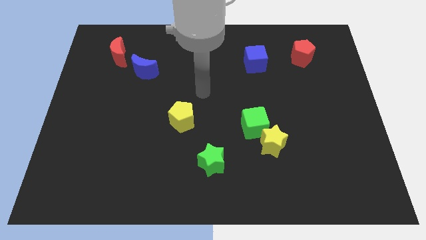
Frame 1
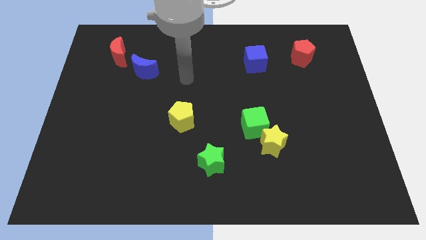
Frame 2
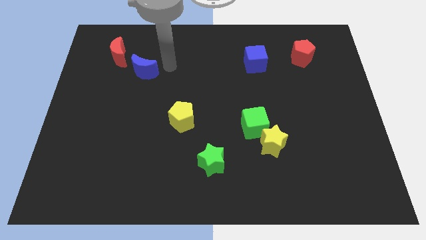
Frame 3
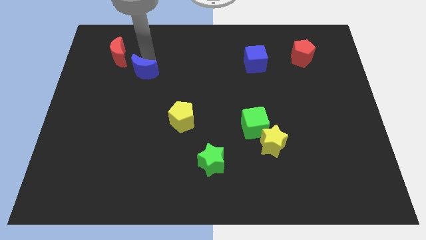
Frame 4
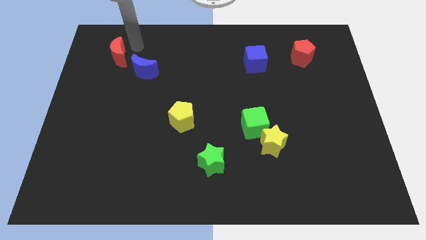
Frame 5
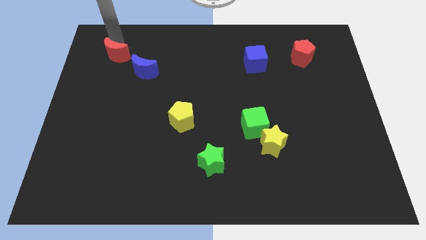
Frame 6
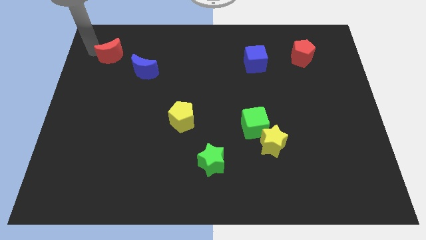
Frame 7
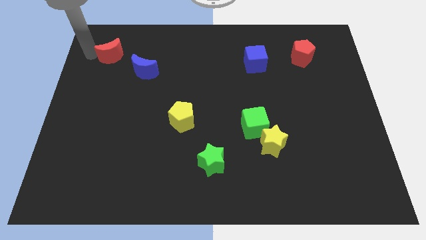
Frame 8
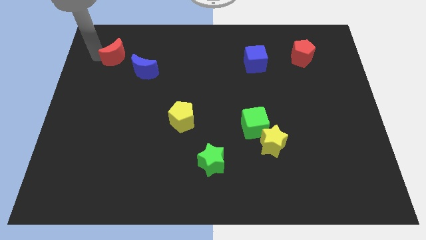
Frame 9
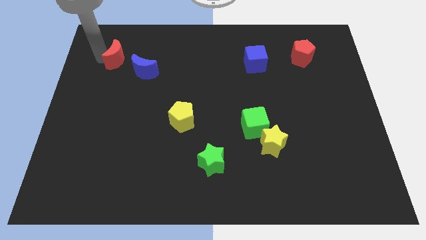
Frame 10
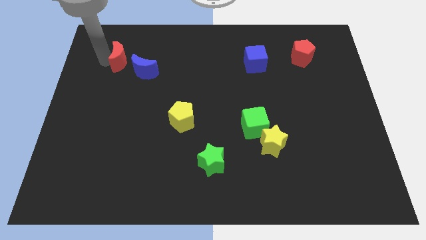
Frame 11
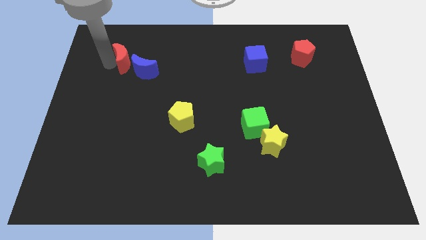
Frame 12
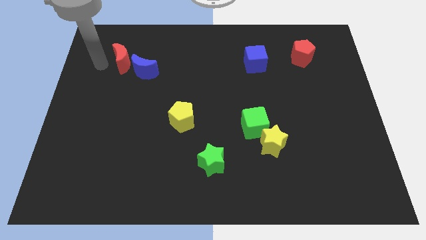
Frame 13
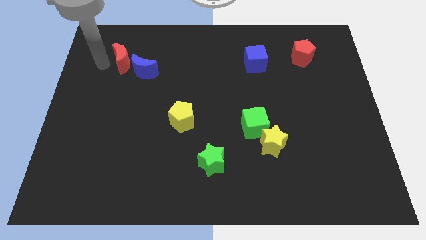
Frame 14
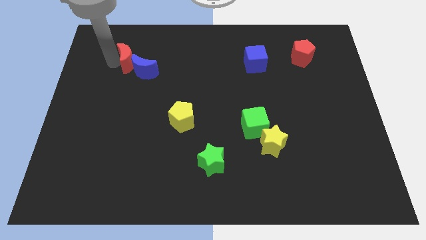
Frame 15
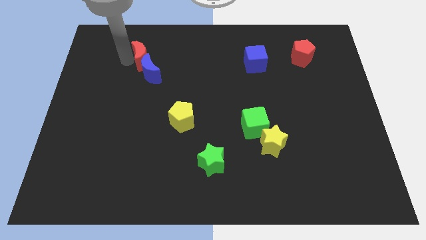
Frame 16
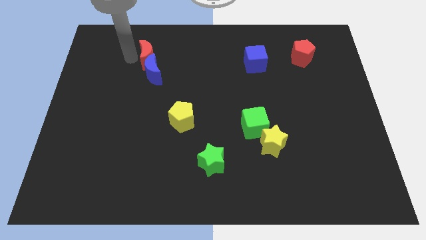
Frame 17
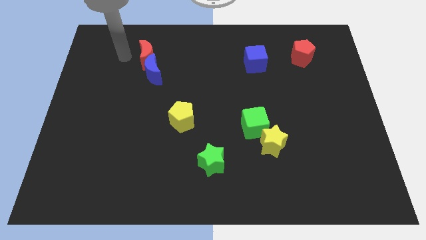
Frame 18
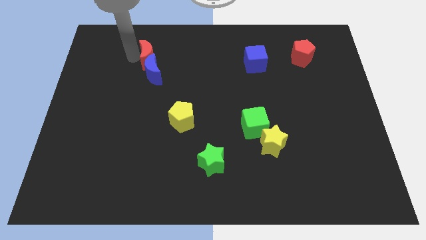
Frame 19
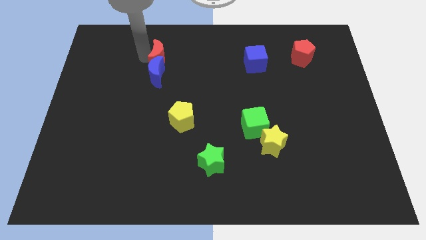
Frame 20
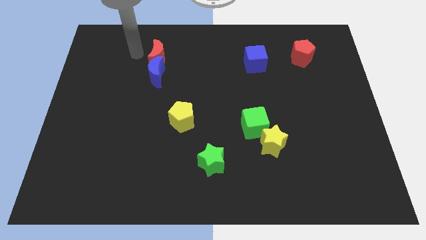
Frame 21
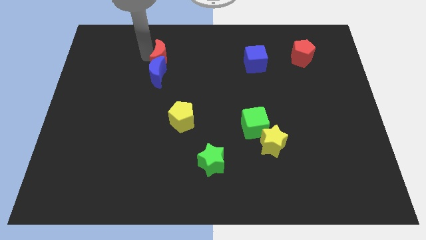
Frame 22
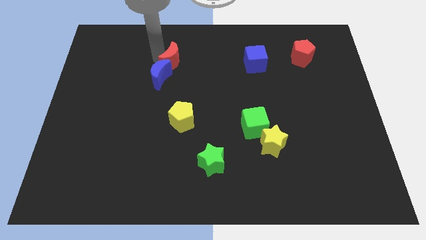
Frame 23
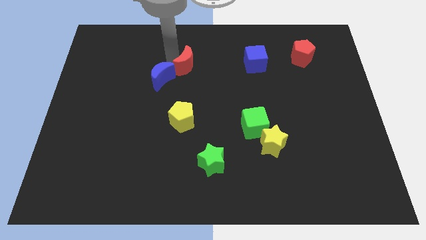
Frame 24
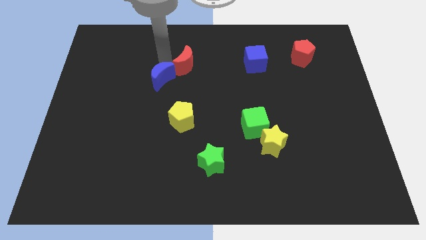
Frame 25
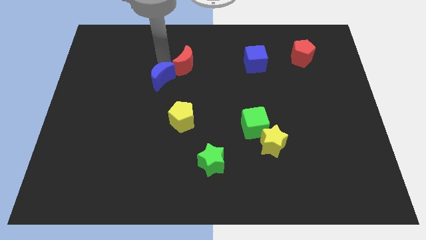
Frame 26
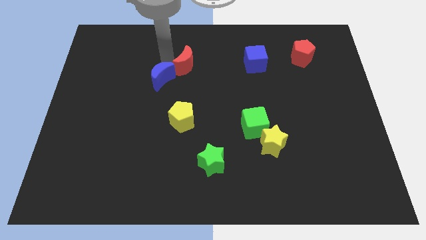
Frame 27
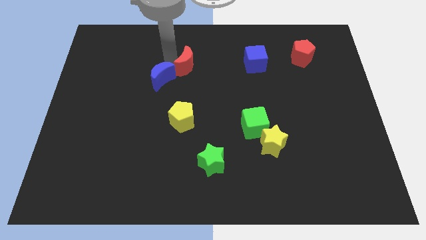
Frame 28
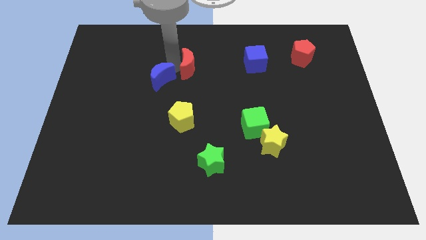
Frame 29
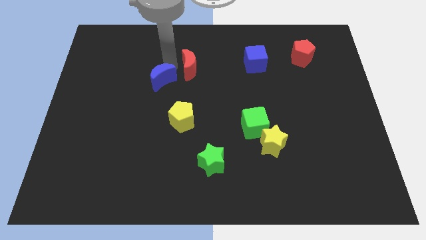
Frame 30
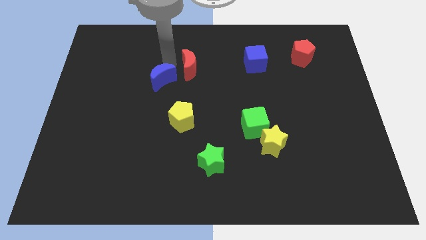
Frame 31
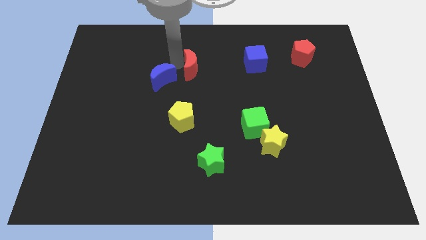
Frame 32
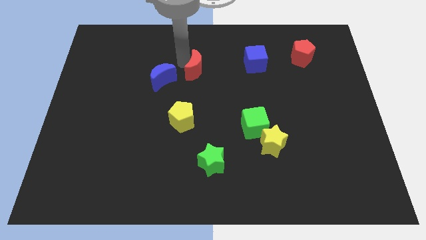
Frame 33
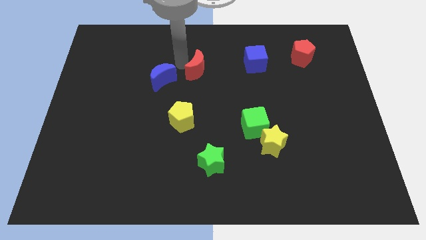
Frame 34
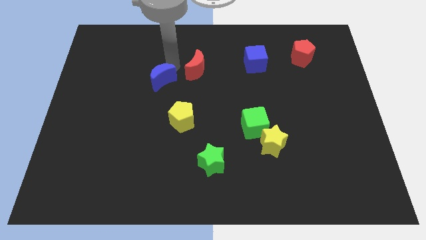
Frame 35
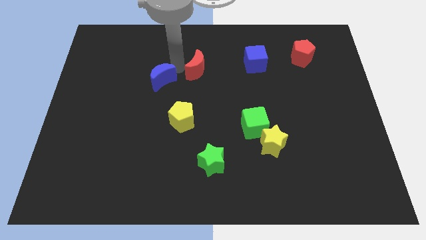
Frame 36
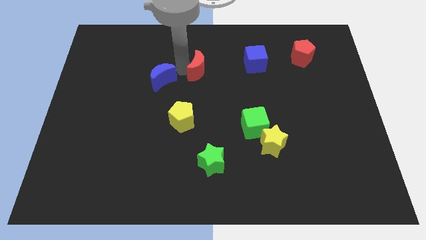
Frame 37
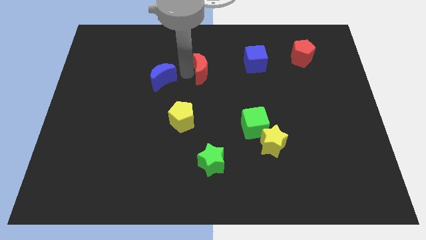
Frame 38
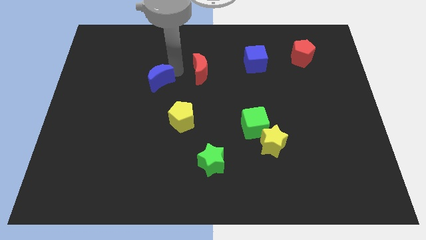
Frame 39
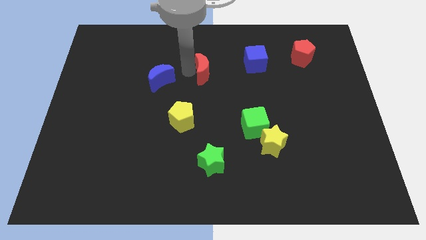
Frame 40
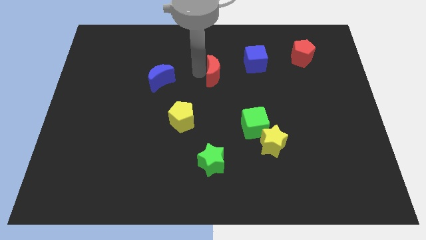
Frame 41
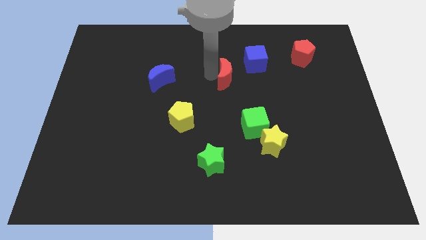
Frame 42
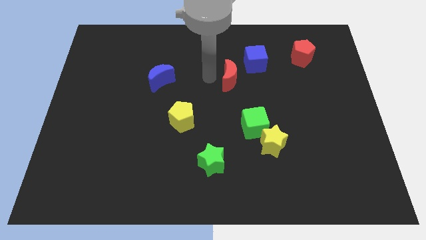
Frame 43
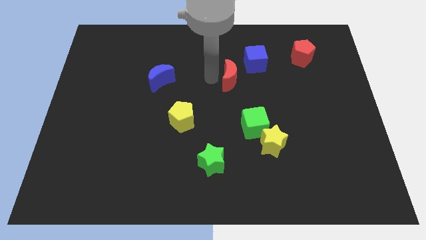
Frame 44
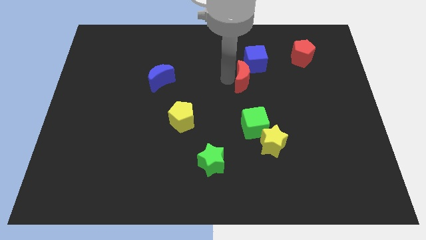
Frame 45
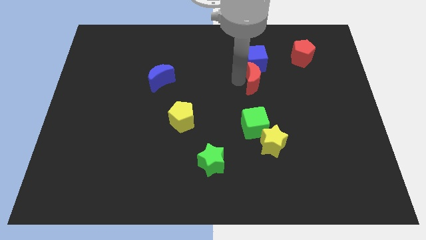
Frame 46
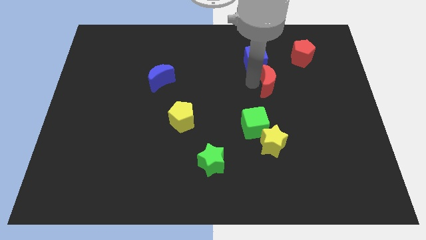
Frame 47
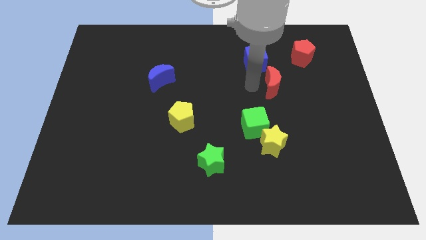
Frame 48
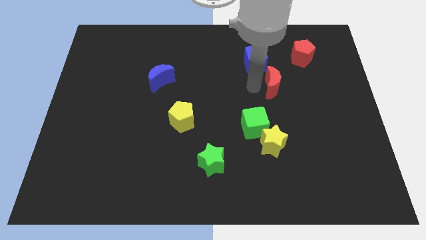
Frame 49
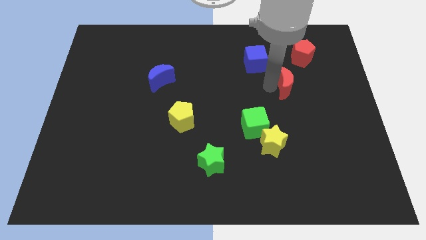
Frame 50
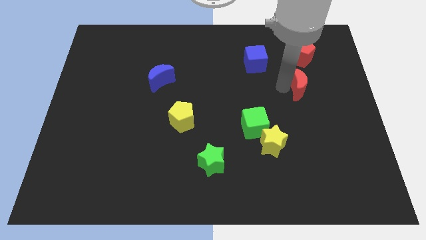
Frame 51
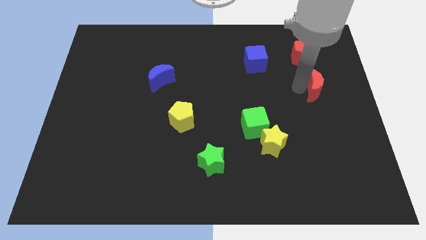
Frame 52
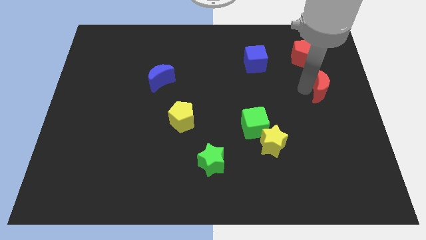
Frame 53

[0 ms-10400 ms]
put the red moon to the right side of the board

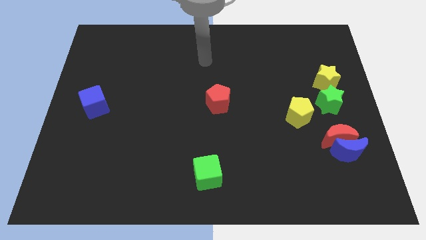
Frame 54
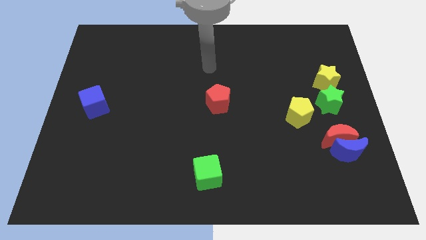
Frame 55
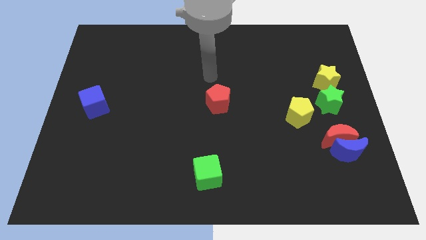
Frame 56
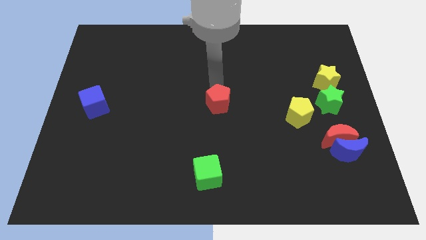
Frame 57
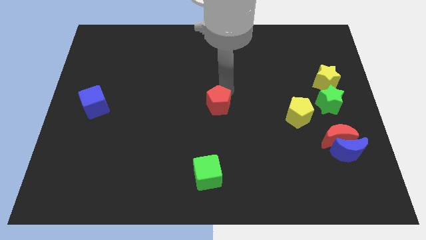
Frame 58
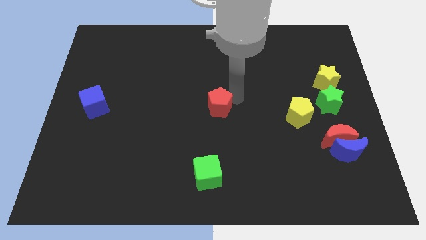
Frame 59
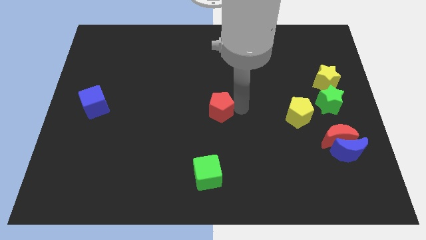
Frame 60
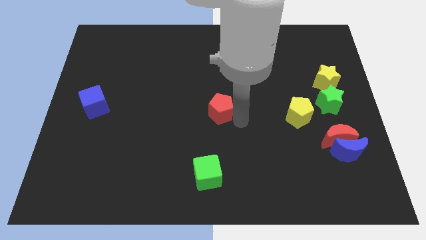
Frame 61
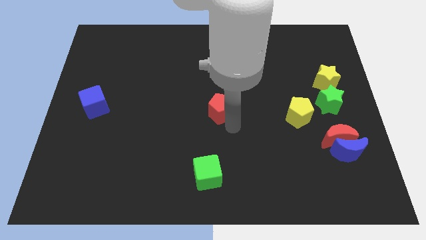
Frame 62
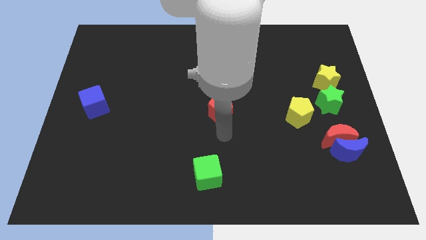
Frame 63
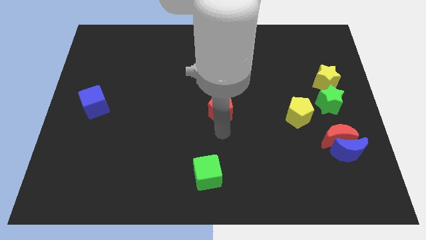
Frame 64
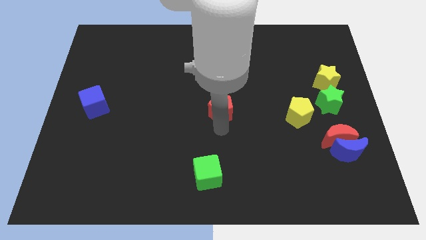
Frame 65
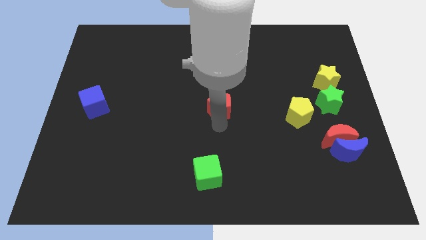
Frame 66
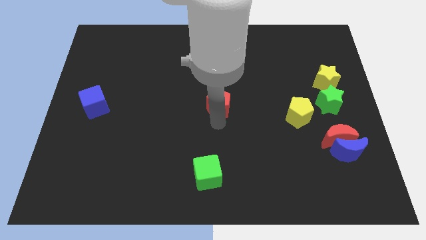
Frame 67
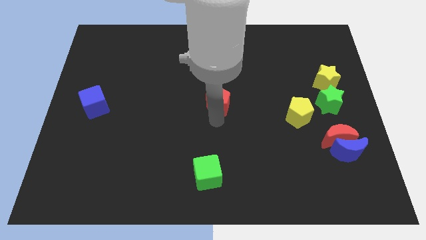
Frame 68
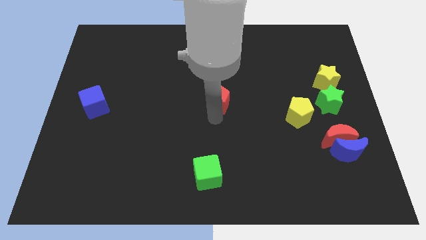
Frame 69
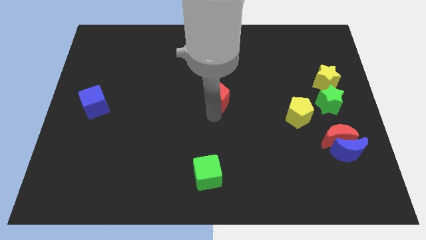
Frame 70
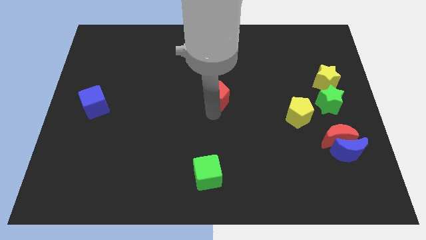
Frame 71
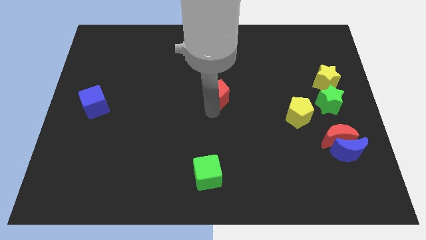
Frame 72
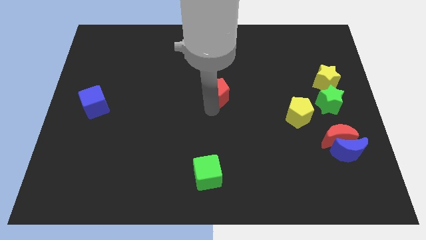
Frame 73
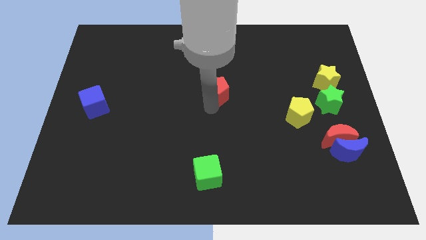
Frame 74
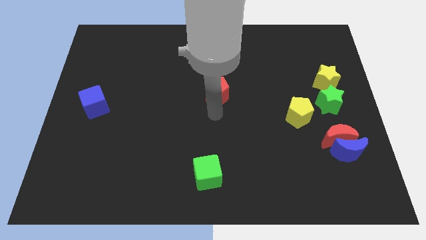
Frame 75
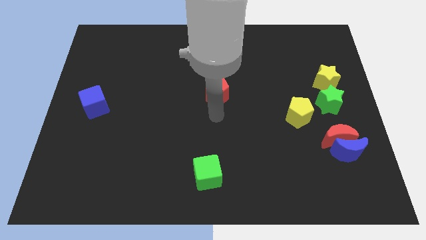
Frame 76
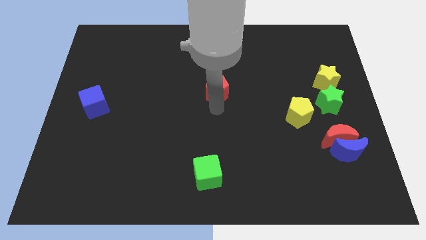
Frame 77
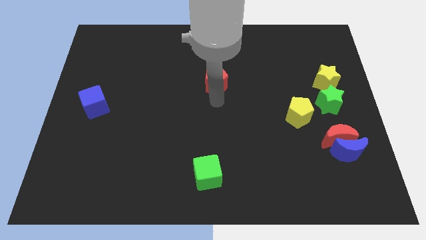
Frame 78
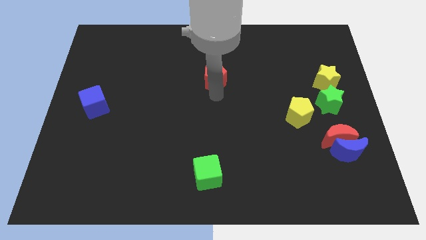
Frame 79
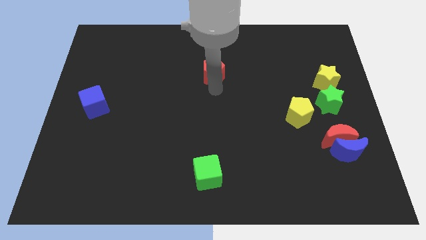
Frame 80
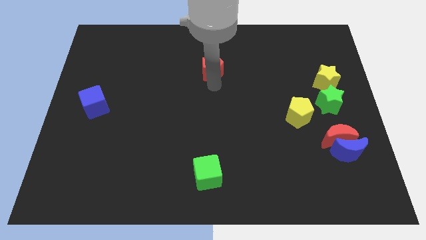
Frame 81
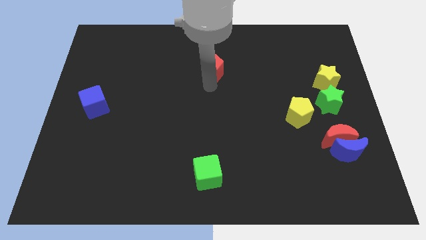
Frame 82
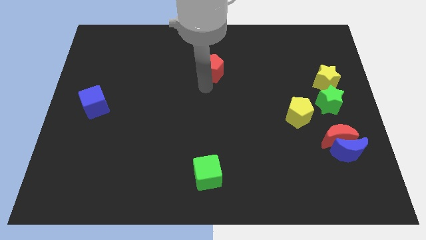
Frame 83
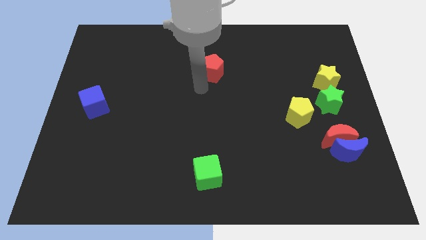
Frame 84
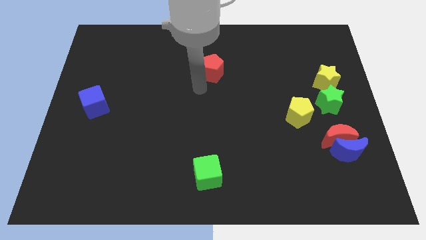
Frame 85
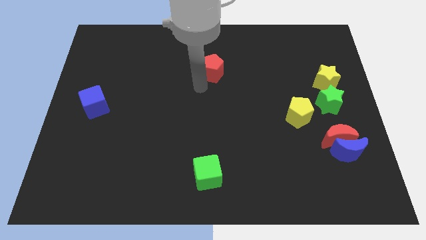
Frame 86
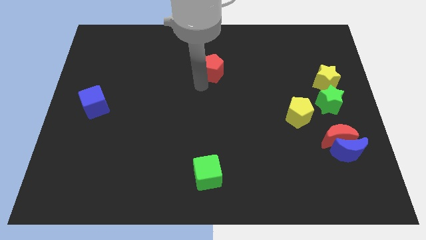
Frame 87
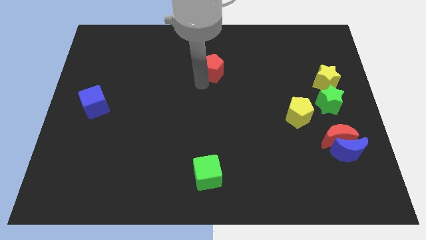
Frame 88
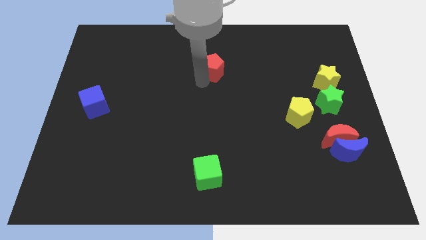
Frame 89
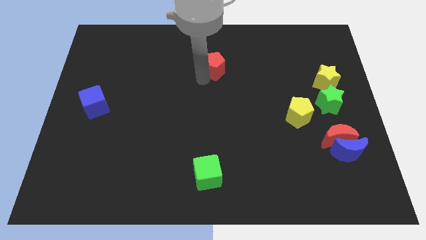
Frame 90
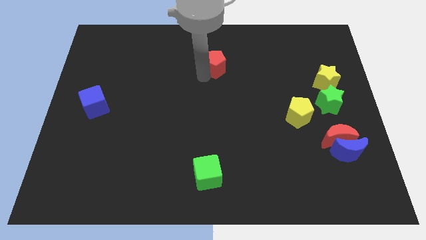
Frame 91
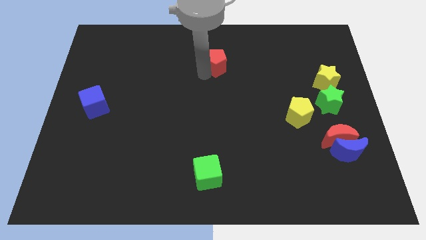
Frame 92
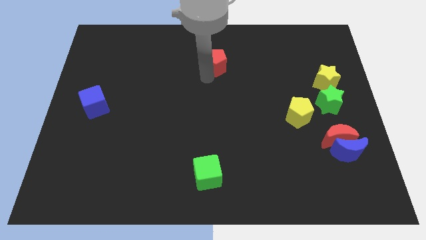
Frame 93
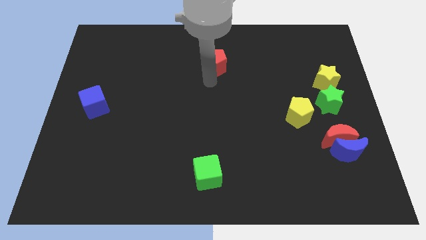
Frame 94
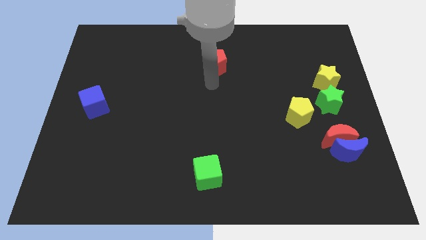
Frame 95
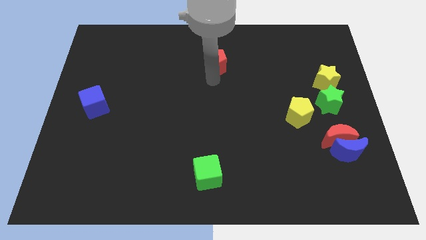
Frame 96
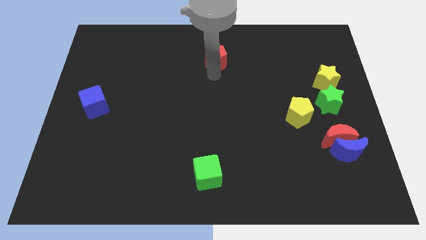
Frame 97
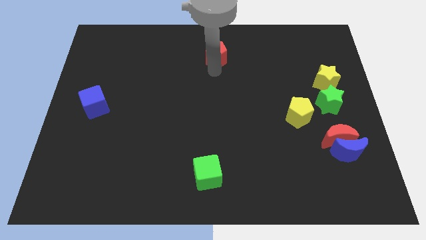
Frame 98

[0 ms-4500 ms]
slide the red pentagon to the towards your base
